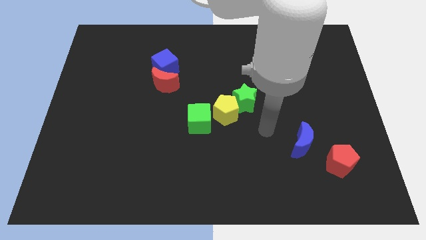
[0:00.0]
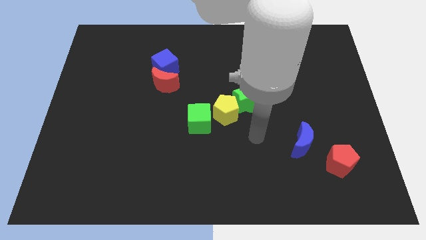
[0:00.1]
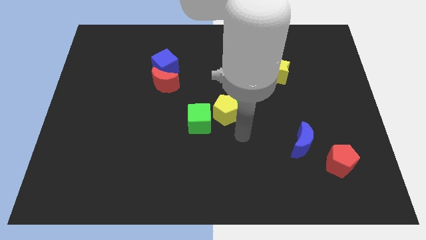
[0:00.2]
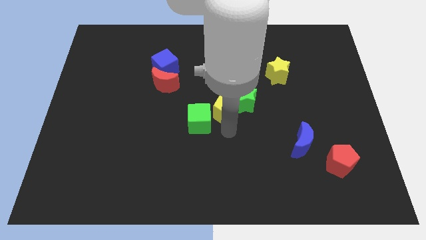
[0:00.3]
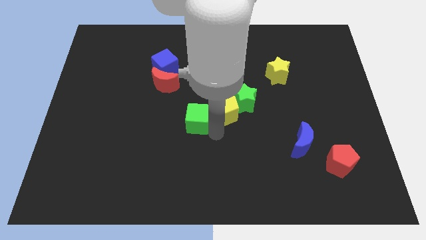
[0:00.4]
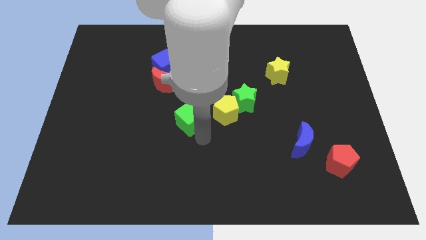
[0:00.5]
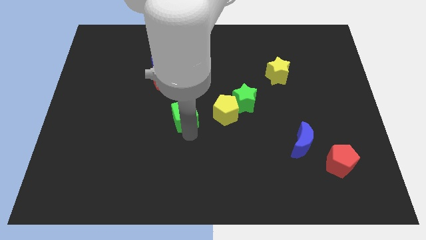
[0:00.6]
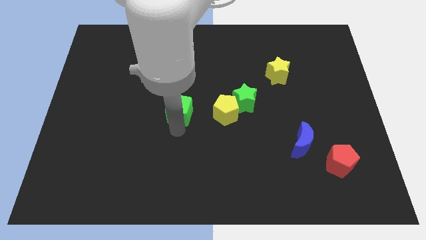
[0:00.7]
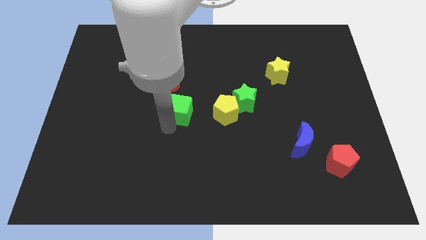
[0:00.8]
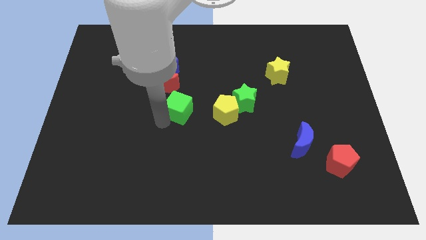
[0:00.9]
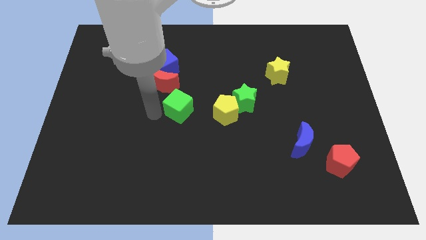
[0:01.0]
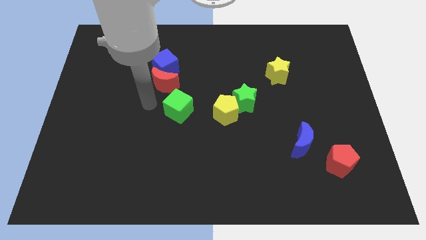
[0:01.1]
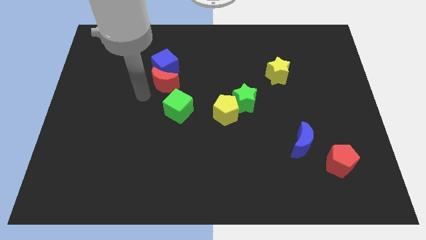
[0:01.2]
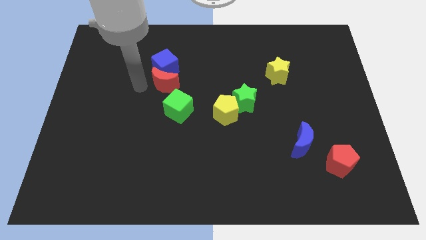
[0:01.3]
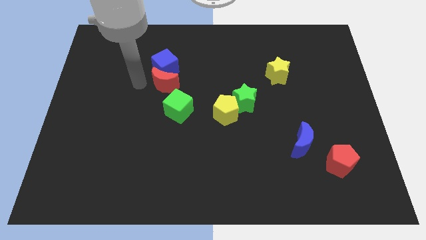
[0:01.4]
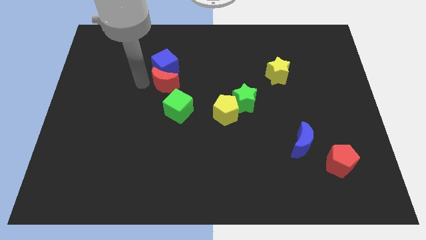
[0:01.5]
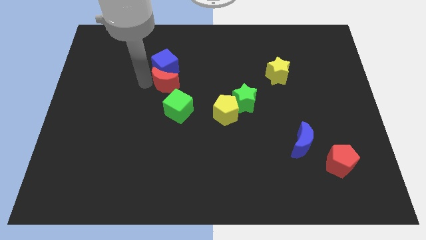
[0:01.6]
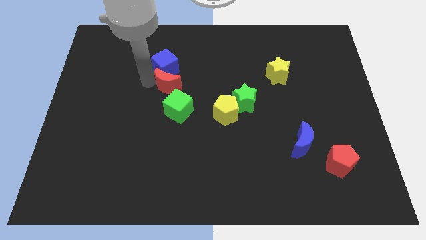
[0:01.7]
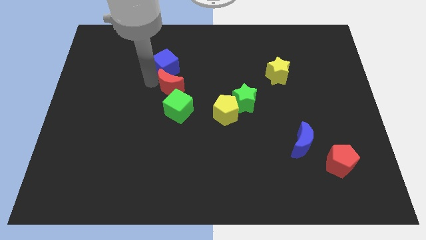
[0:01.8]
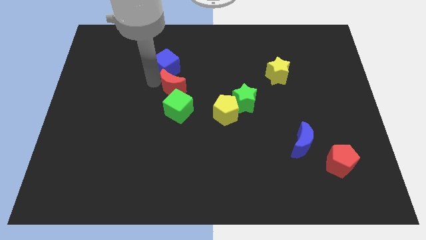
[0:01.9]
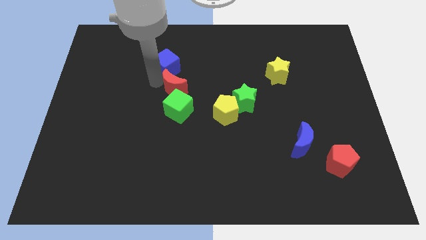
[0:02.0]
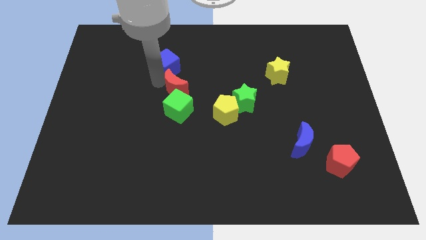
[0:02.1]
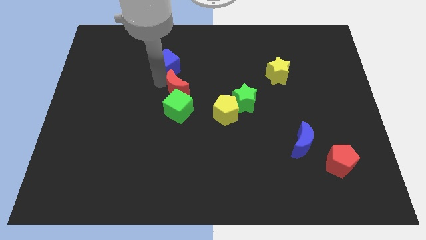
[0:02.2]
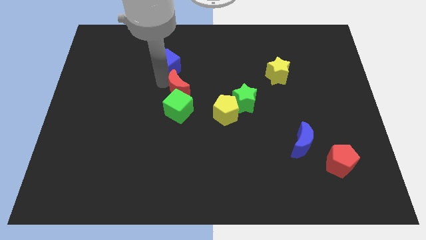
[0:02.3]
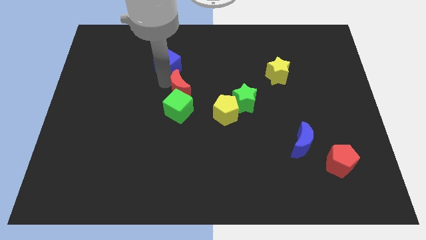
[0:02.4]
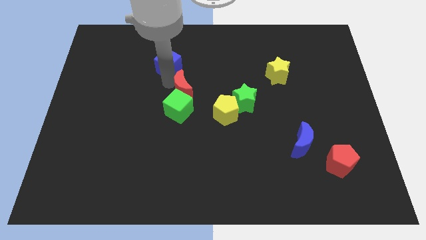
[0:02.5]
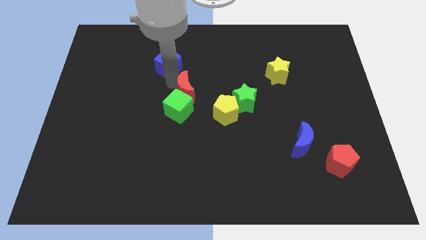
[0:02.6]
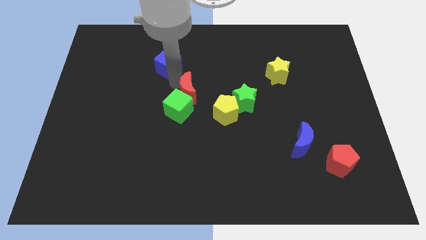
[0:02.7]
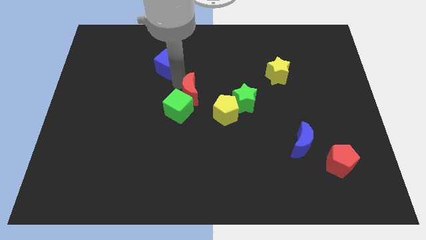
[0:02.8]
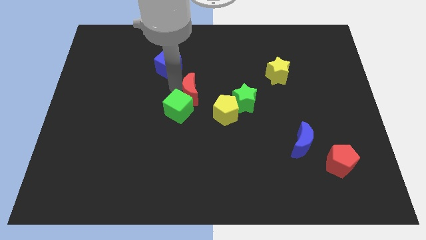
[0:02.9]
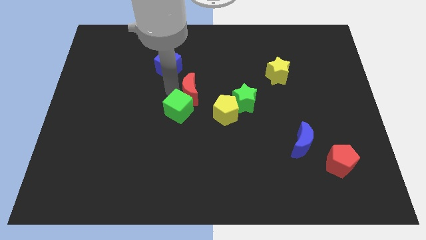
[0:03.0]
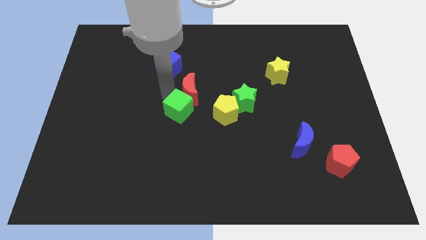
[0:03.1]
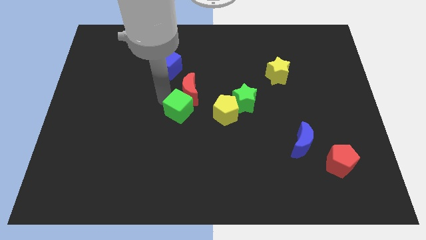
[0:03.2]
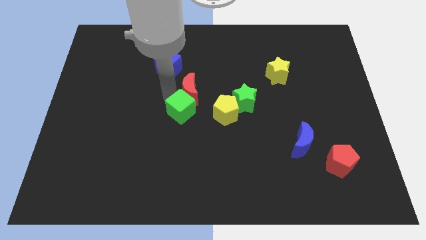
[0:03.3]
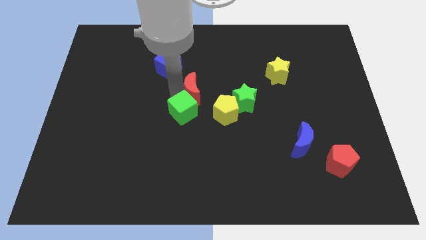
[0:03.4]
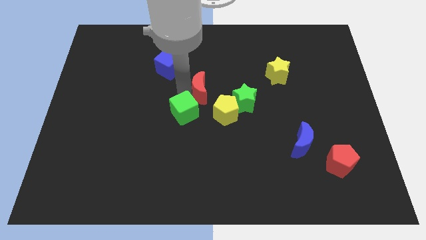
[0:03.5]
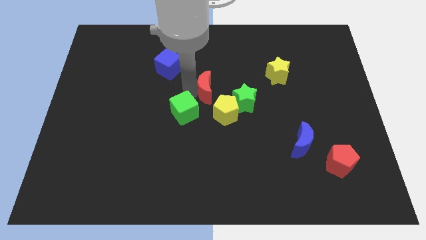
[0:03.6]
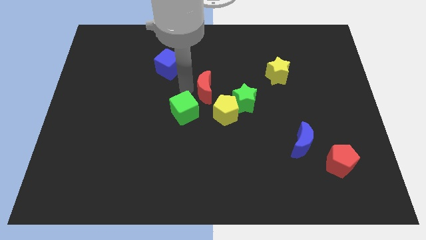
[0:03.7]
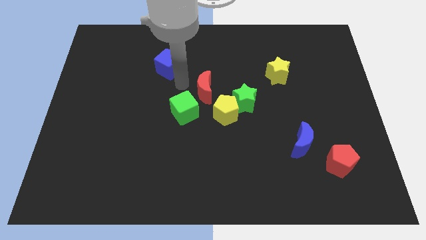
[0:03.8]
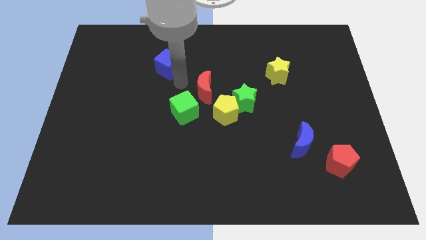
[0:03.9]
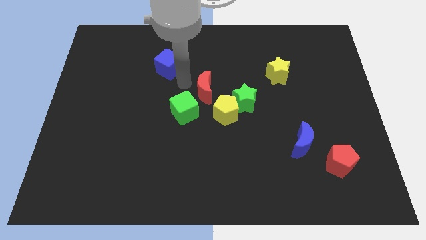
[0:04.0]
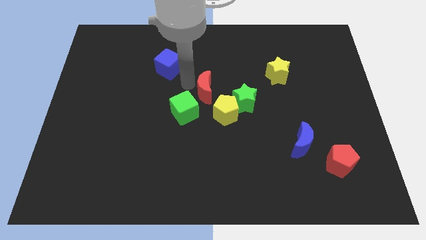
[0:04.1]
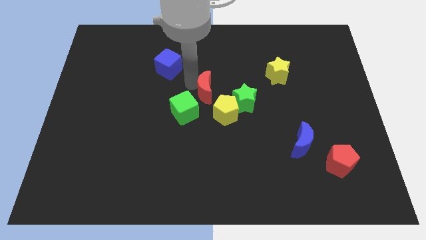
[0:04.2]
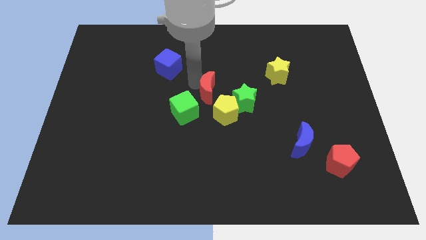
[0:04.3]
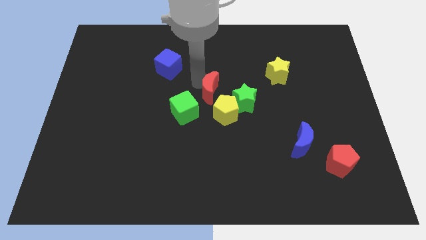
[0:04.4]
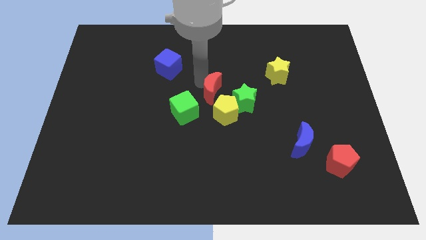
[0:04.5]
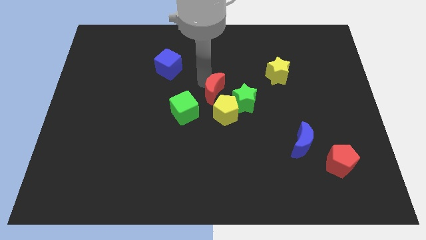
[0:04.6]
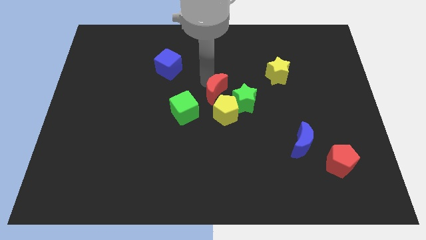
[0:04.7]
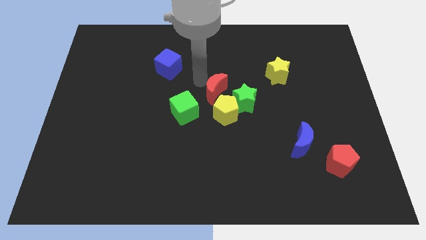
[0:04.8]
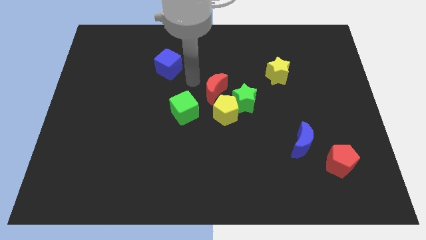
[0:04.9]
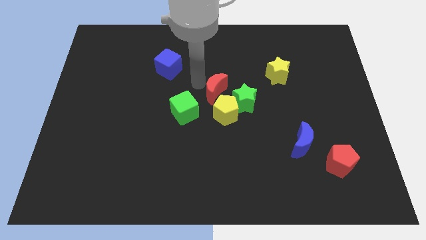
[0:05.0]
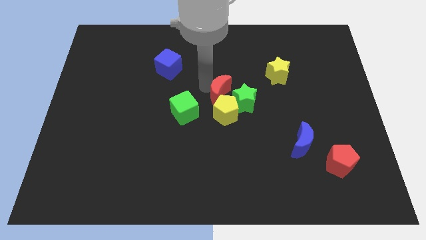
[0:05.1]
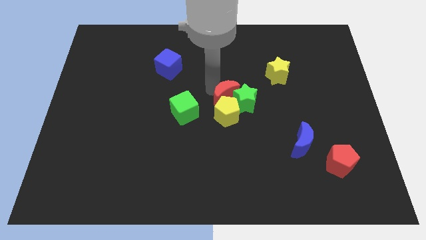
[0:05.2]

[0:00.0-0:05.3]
move the red moon close to the green star

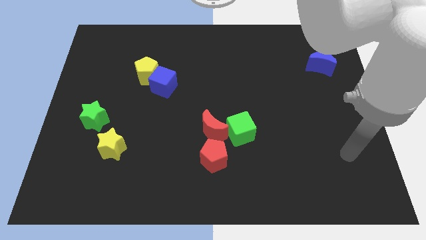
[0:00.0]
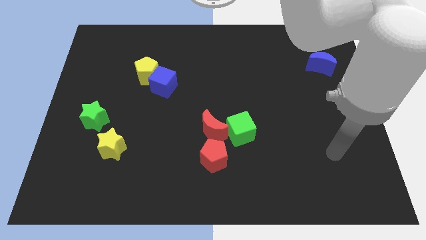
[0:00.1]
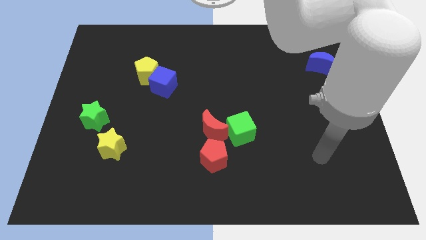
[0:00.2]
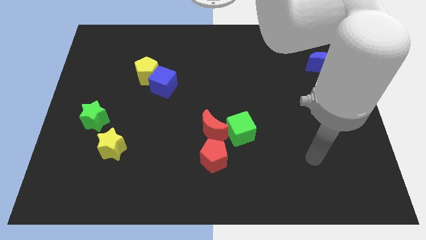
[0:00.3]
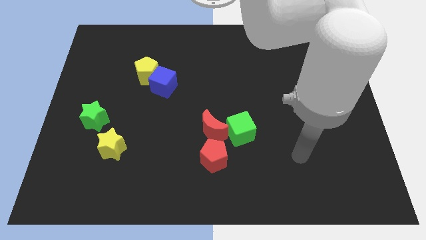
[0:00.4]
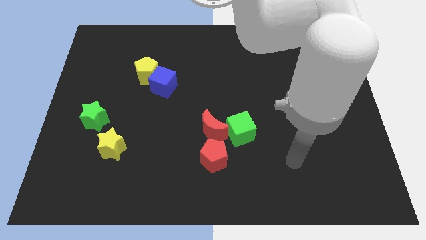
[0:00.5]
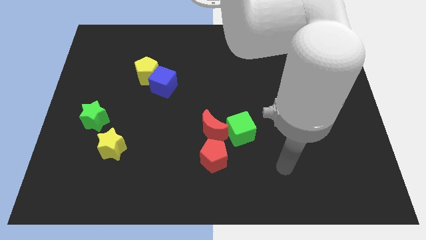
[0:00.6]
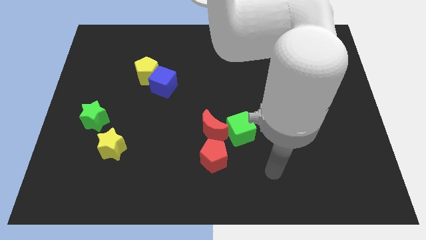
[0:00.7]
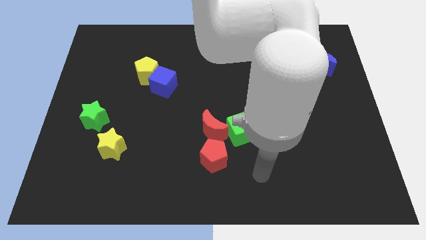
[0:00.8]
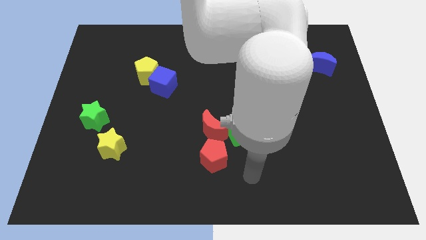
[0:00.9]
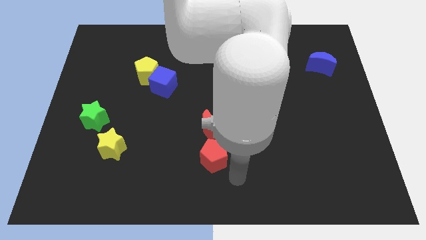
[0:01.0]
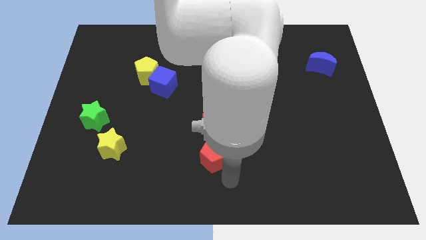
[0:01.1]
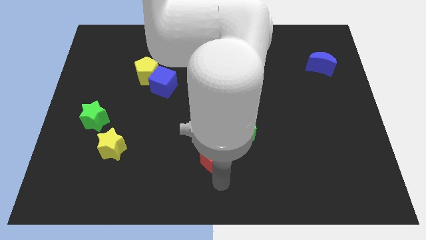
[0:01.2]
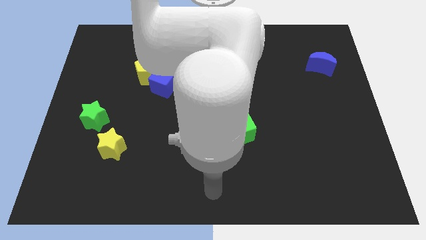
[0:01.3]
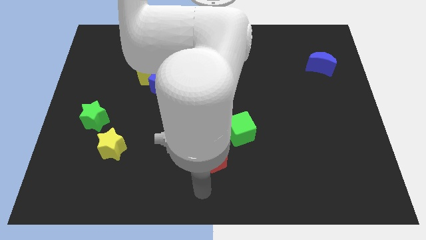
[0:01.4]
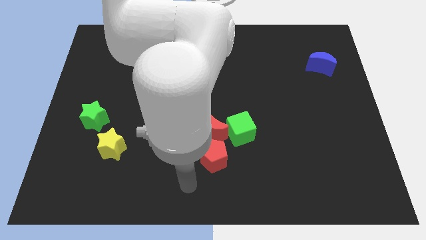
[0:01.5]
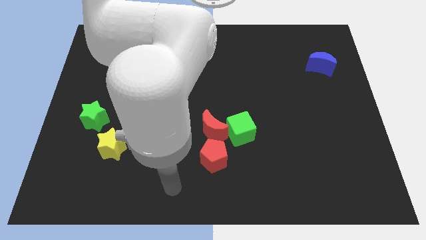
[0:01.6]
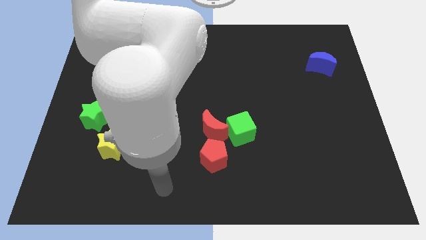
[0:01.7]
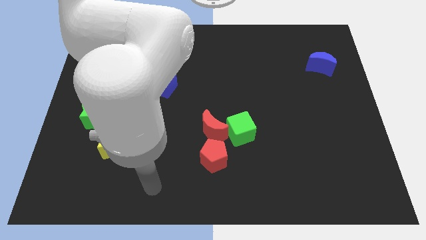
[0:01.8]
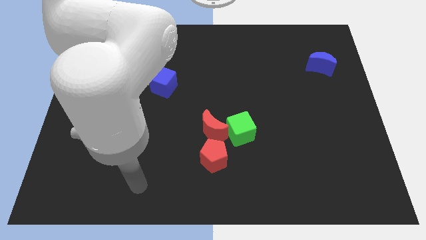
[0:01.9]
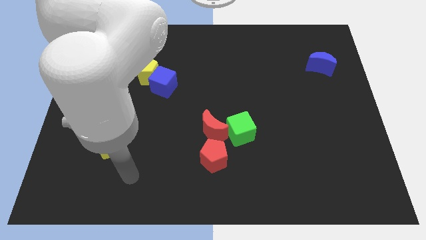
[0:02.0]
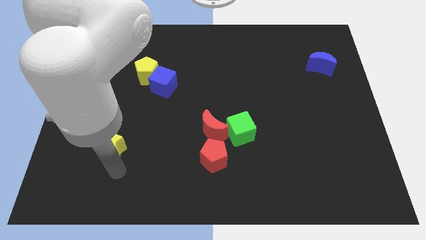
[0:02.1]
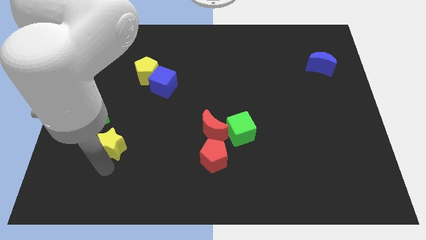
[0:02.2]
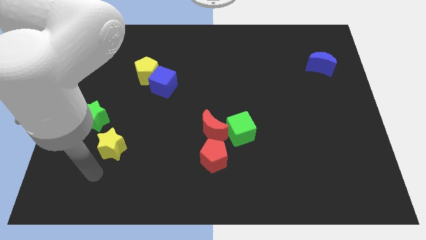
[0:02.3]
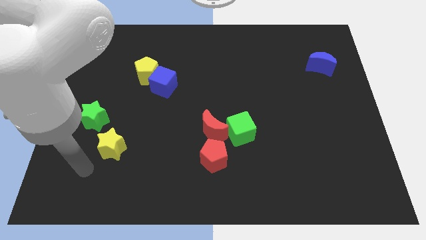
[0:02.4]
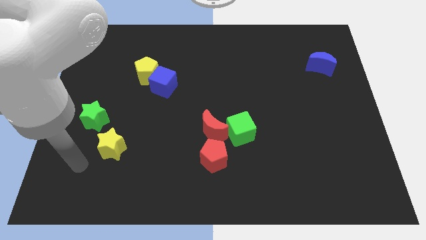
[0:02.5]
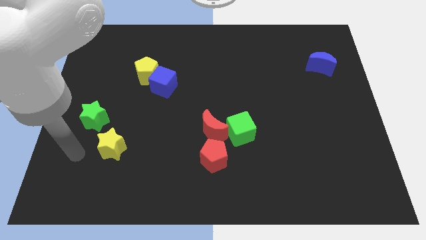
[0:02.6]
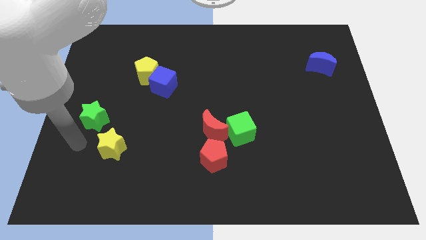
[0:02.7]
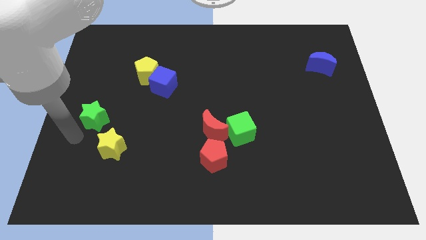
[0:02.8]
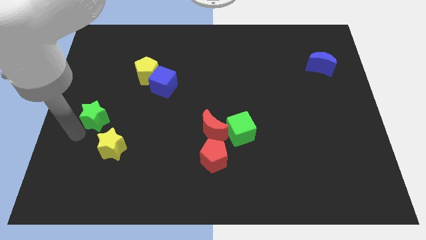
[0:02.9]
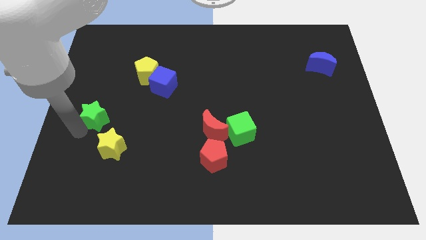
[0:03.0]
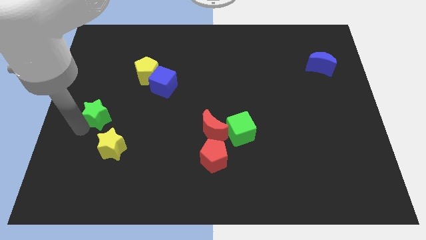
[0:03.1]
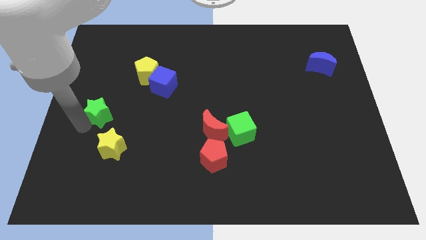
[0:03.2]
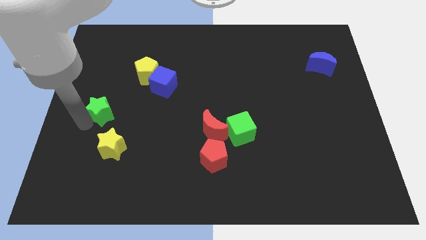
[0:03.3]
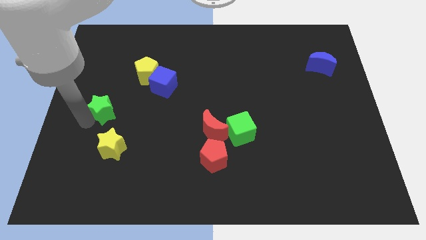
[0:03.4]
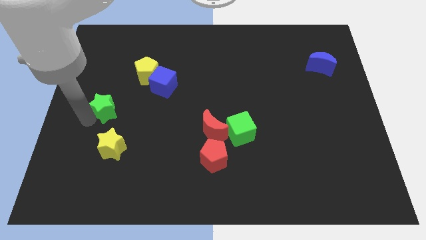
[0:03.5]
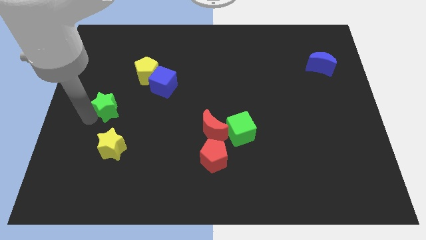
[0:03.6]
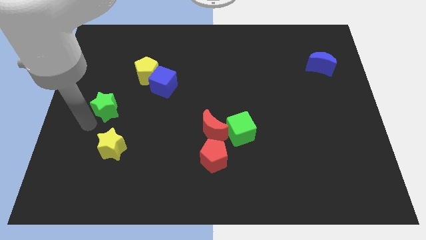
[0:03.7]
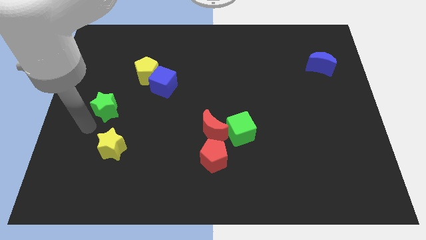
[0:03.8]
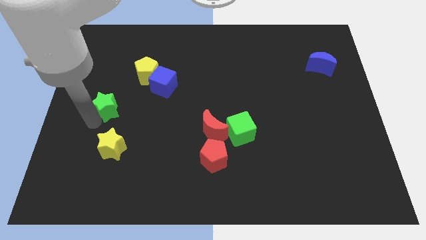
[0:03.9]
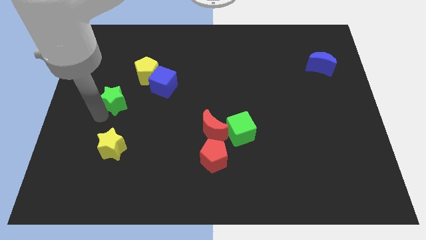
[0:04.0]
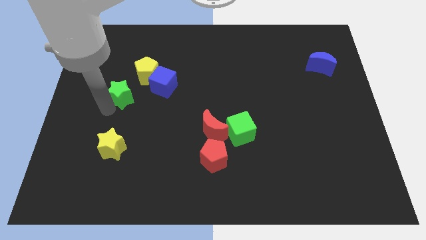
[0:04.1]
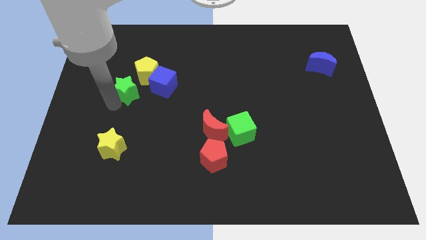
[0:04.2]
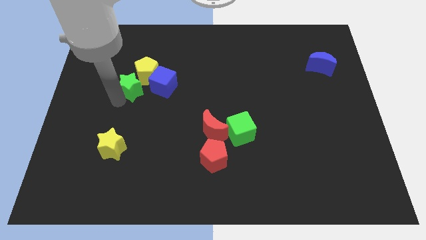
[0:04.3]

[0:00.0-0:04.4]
slide the green star to the yellow pentagon
